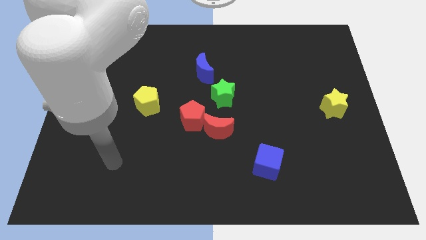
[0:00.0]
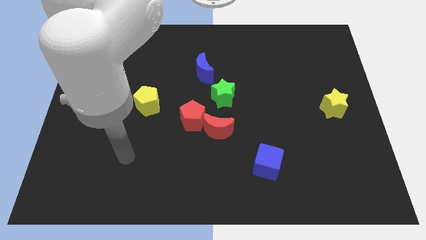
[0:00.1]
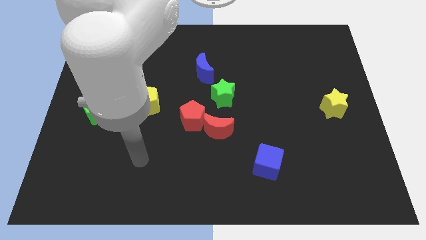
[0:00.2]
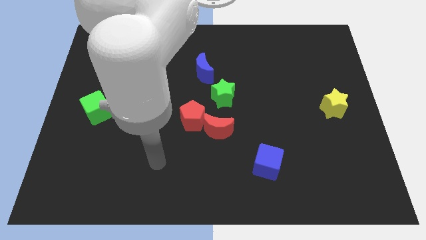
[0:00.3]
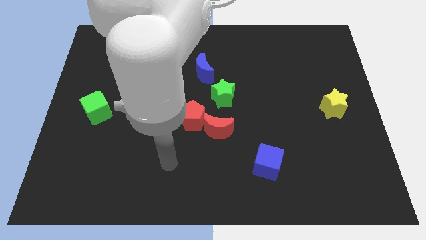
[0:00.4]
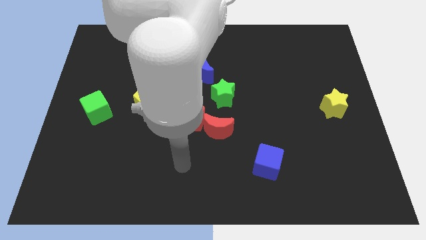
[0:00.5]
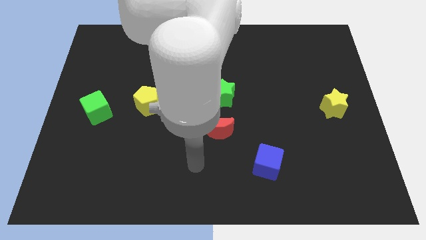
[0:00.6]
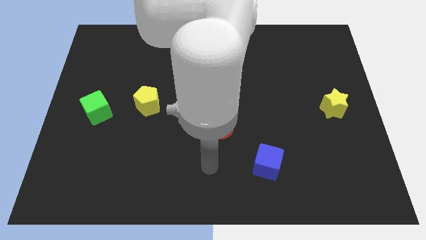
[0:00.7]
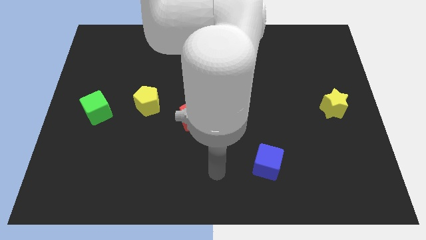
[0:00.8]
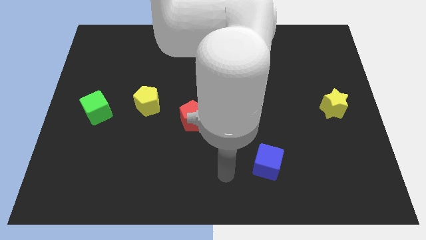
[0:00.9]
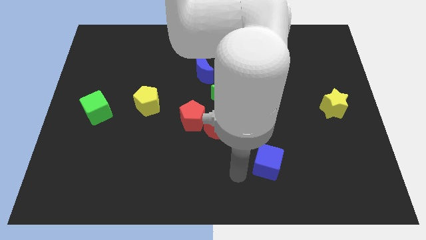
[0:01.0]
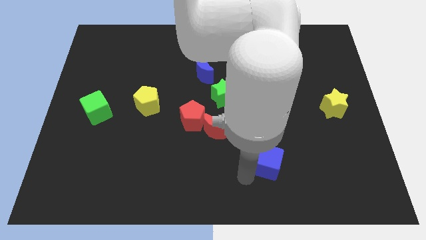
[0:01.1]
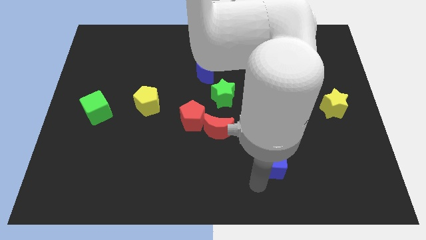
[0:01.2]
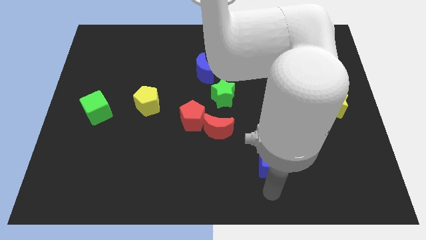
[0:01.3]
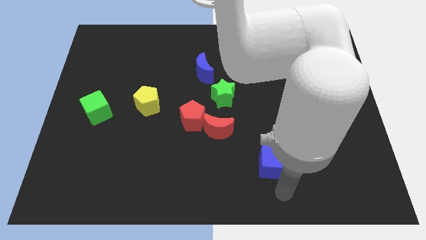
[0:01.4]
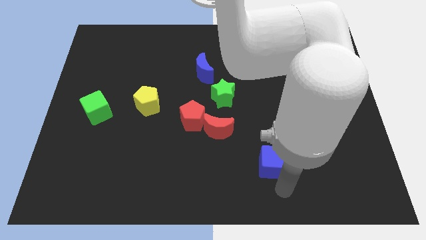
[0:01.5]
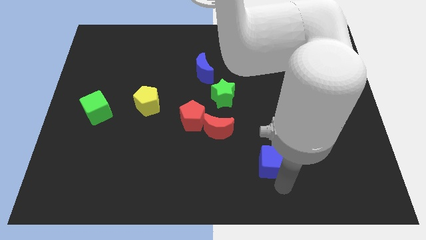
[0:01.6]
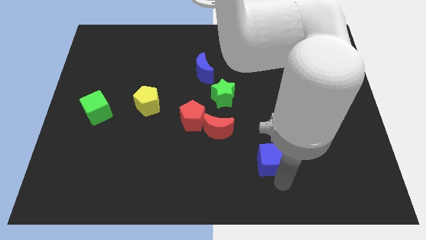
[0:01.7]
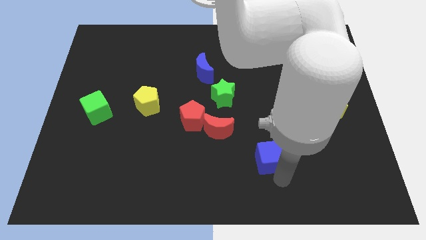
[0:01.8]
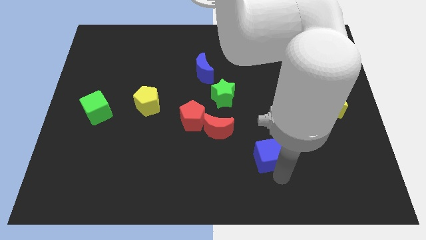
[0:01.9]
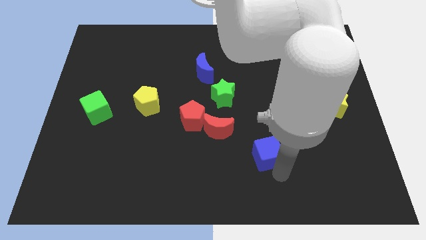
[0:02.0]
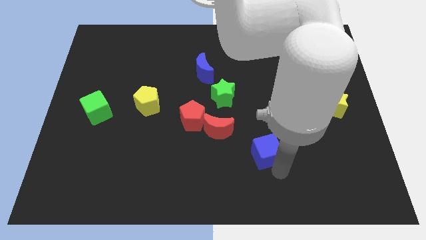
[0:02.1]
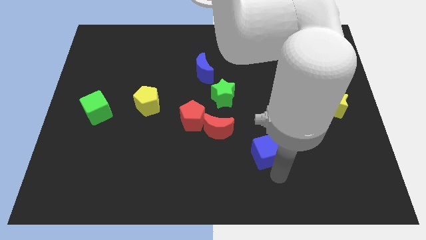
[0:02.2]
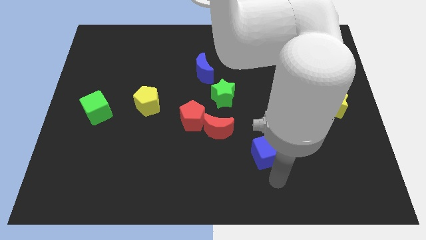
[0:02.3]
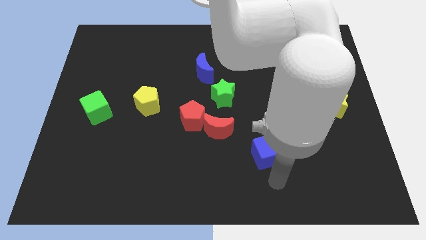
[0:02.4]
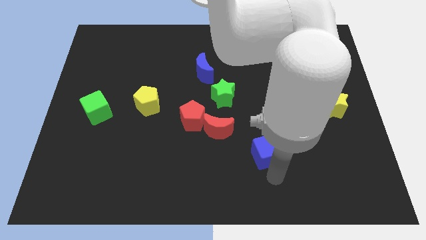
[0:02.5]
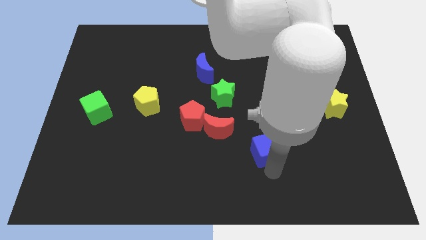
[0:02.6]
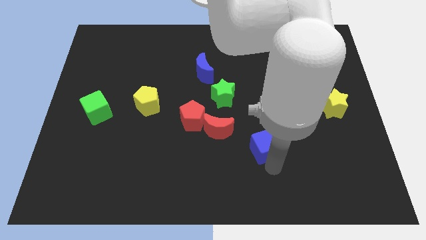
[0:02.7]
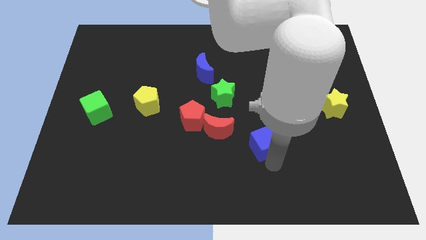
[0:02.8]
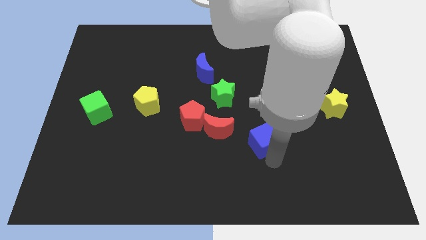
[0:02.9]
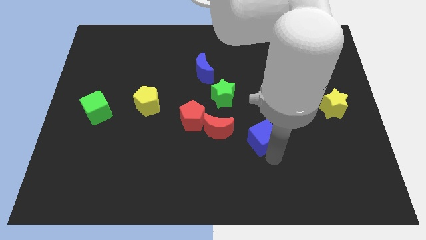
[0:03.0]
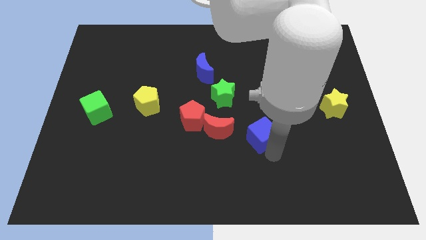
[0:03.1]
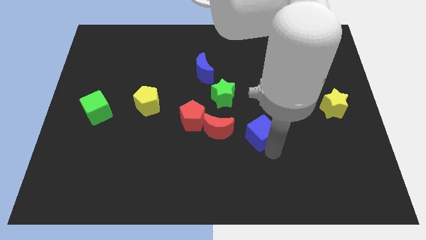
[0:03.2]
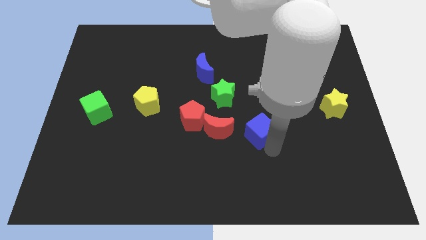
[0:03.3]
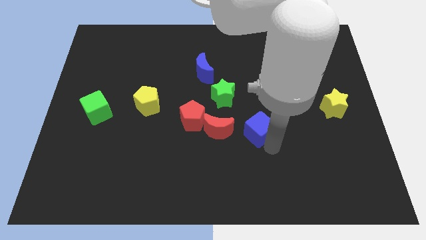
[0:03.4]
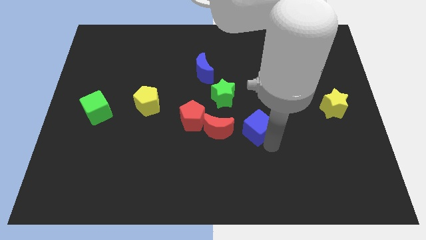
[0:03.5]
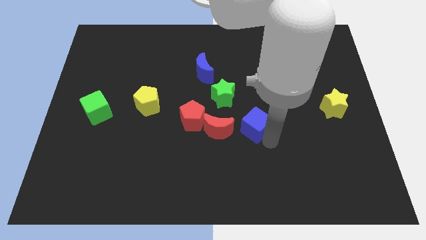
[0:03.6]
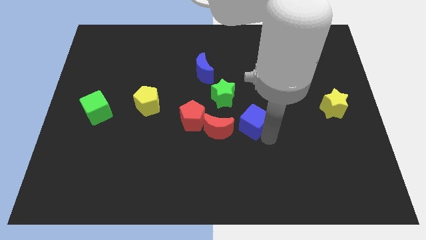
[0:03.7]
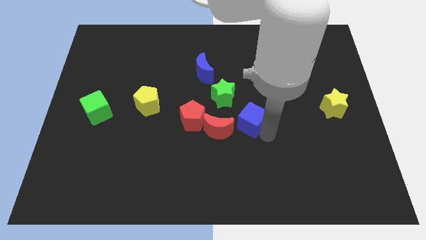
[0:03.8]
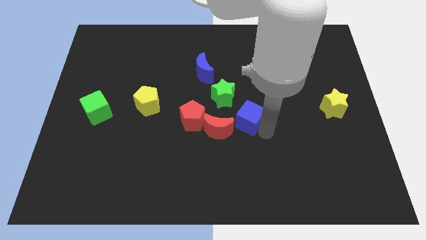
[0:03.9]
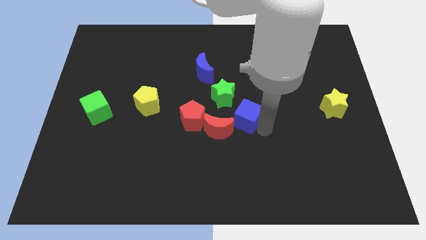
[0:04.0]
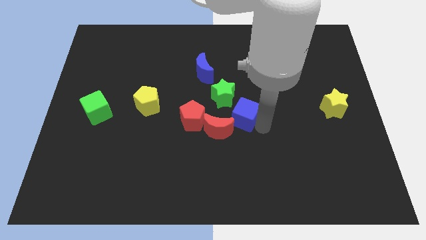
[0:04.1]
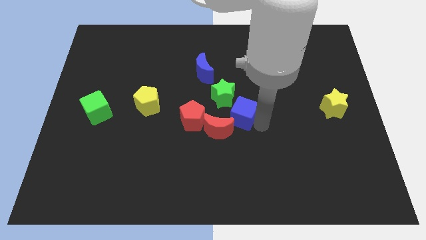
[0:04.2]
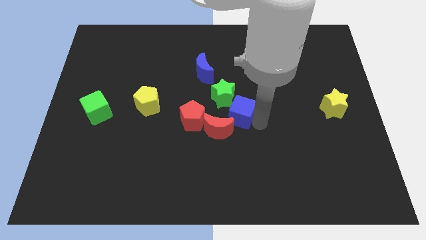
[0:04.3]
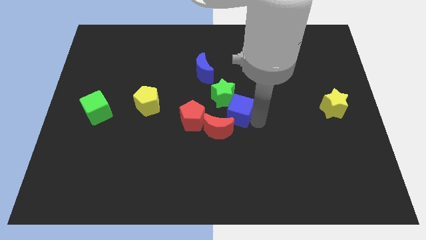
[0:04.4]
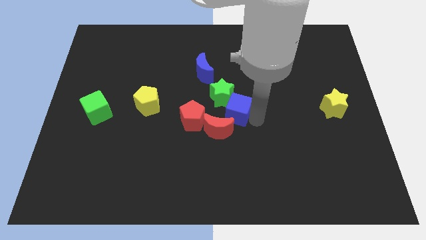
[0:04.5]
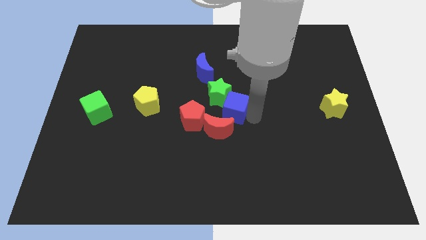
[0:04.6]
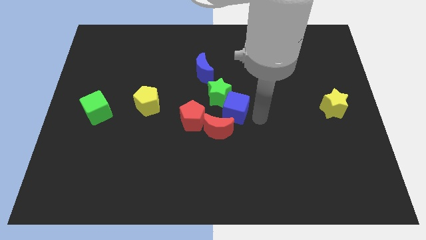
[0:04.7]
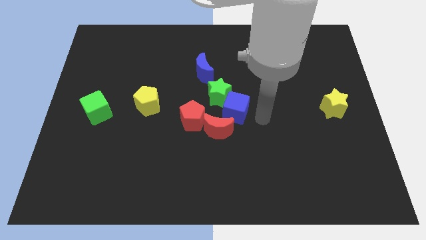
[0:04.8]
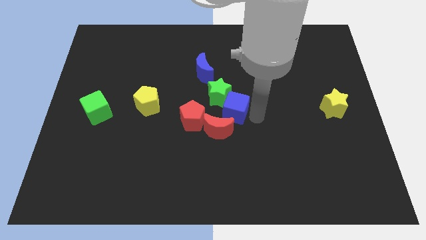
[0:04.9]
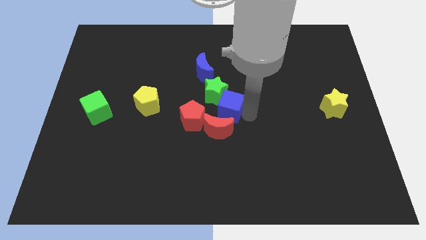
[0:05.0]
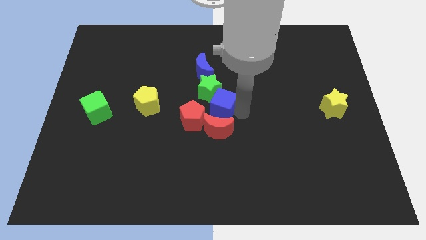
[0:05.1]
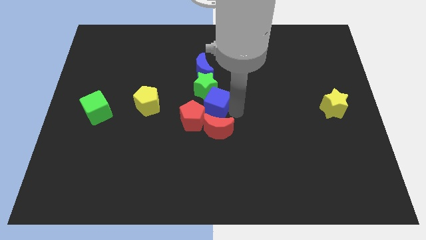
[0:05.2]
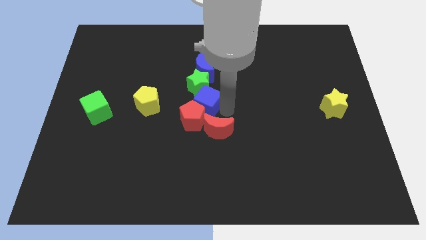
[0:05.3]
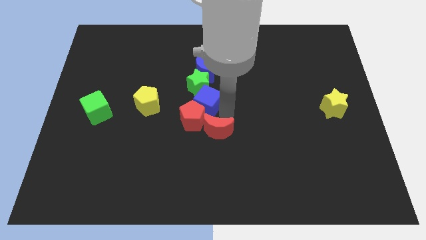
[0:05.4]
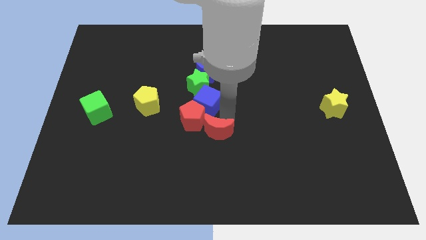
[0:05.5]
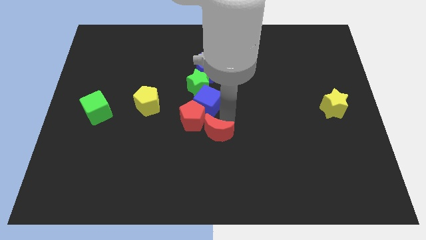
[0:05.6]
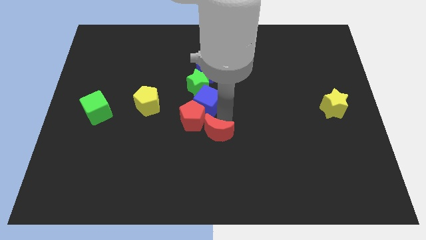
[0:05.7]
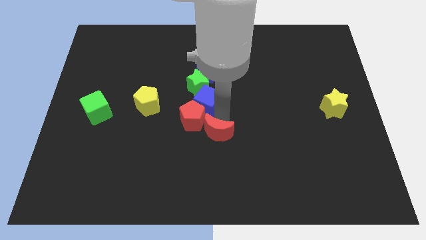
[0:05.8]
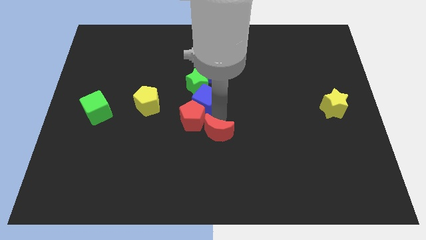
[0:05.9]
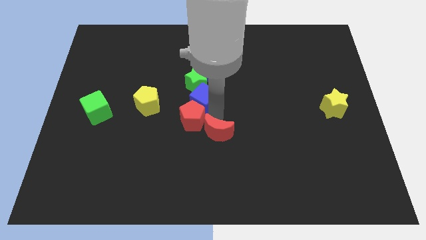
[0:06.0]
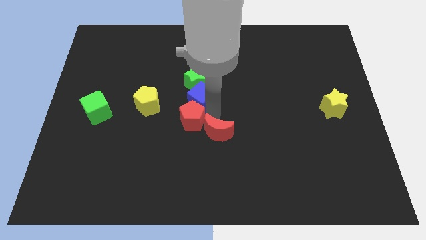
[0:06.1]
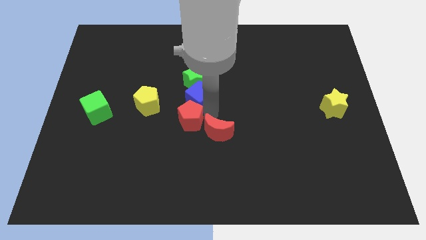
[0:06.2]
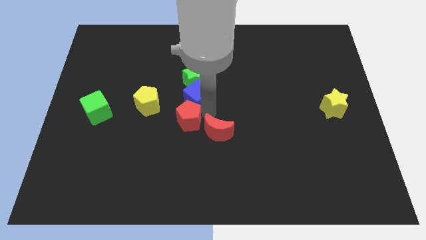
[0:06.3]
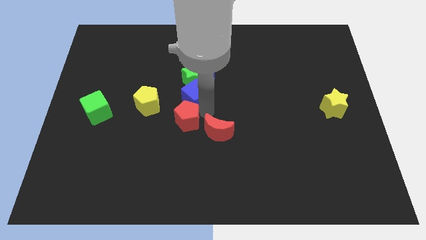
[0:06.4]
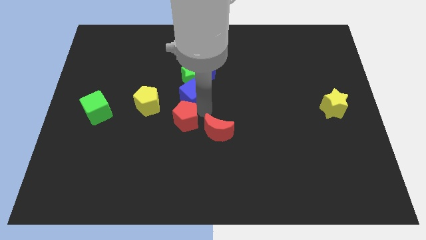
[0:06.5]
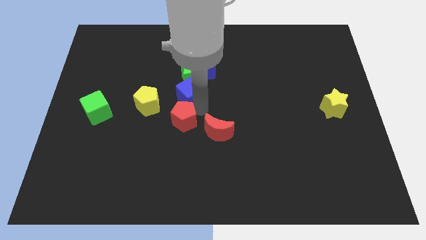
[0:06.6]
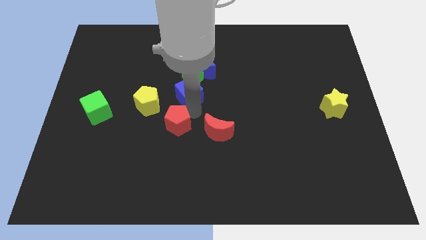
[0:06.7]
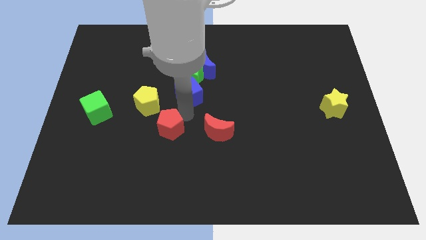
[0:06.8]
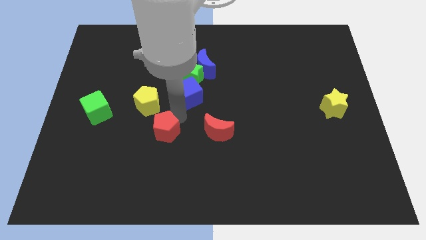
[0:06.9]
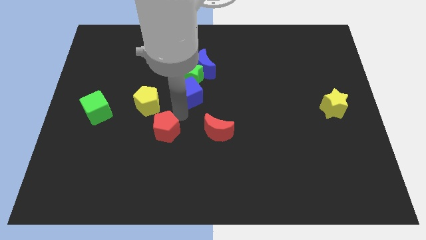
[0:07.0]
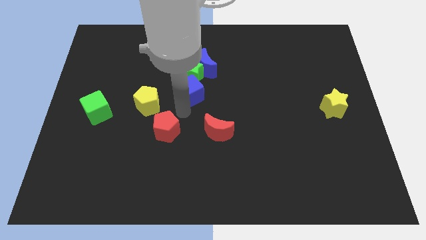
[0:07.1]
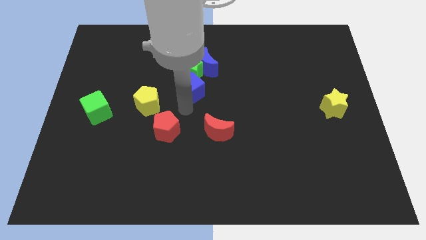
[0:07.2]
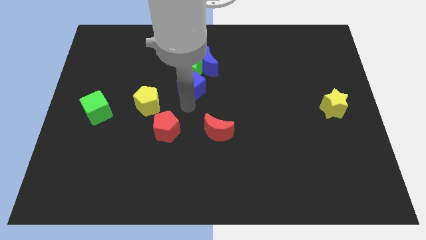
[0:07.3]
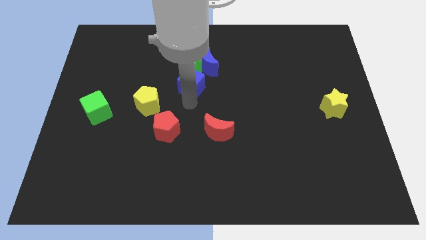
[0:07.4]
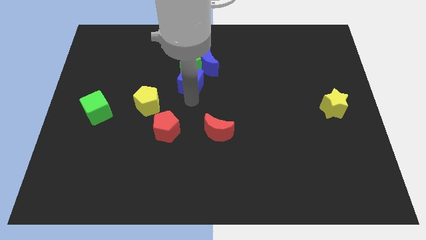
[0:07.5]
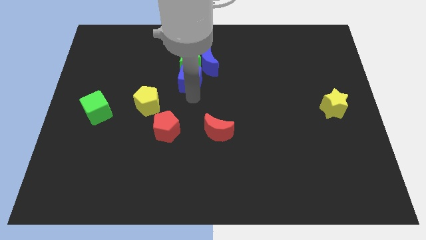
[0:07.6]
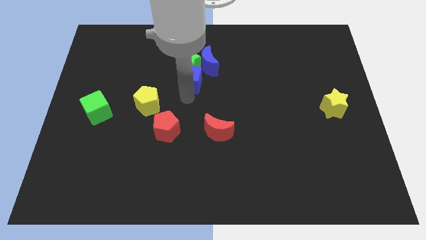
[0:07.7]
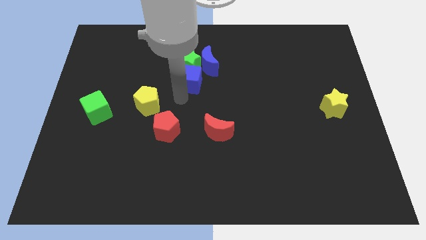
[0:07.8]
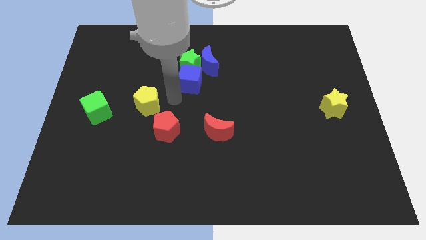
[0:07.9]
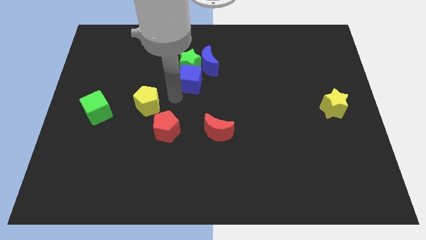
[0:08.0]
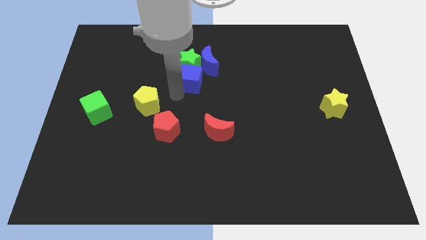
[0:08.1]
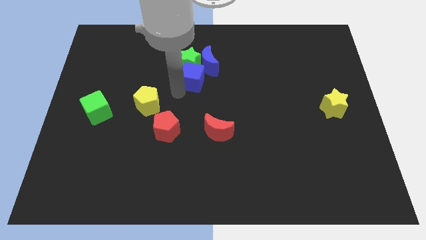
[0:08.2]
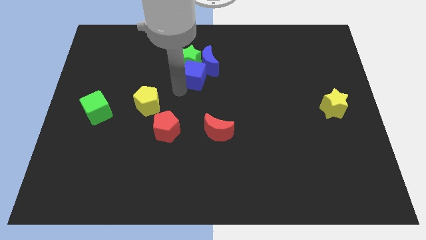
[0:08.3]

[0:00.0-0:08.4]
push the blue cube towards the blue moon
